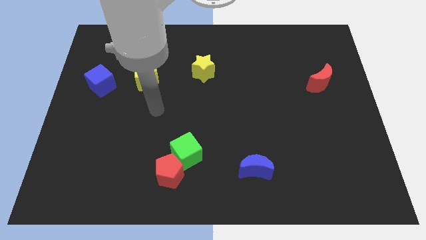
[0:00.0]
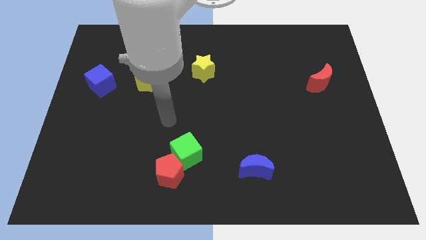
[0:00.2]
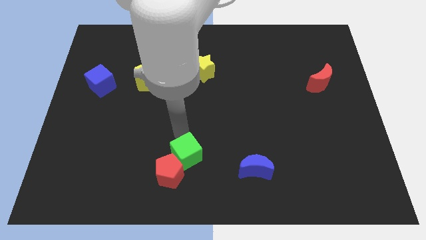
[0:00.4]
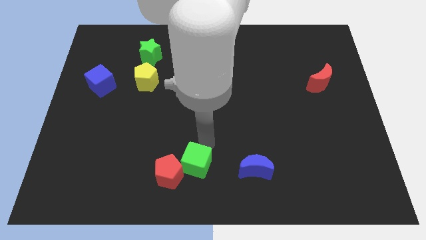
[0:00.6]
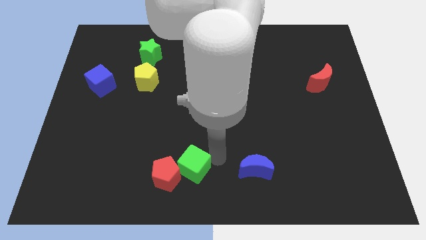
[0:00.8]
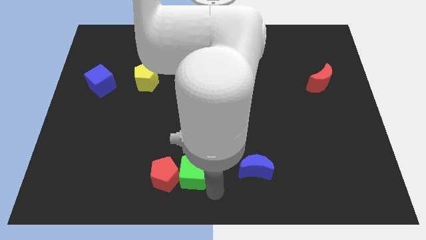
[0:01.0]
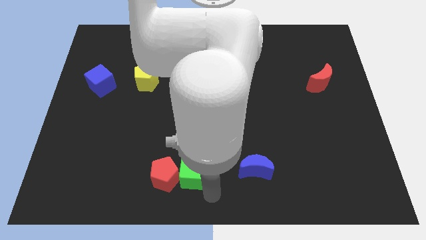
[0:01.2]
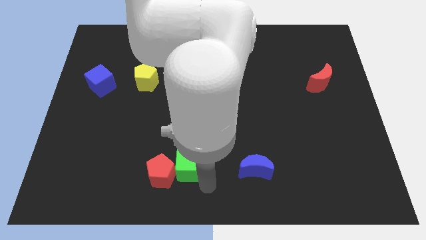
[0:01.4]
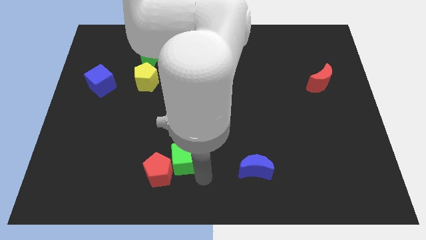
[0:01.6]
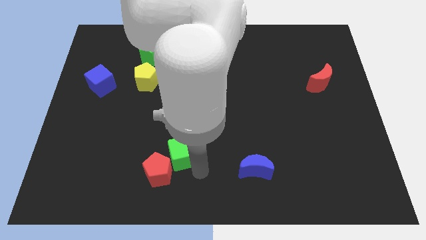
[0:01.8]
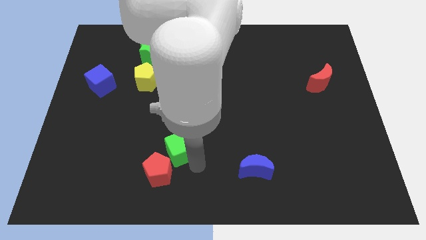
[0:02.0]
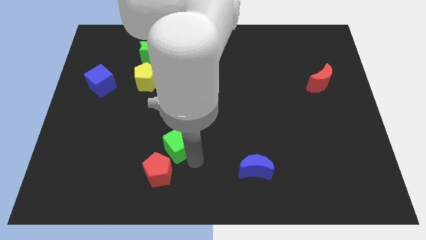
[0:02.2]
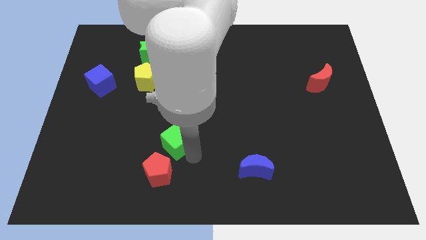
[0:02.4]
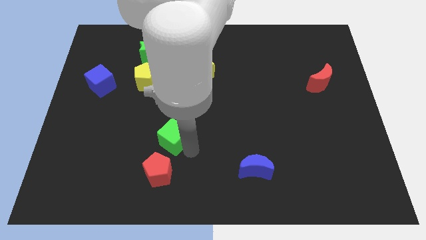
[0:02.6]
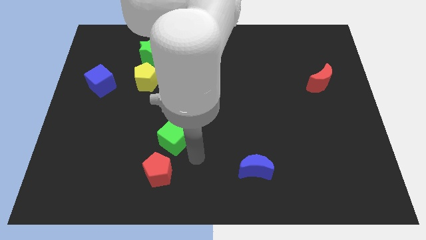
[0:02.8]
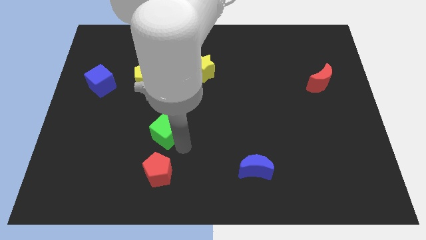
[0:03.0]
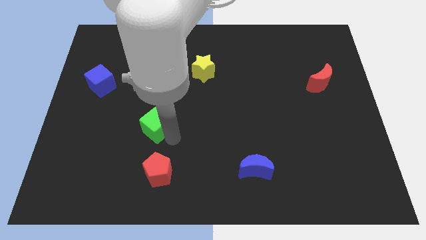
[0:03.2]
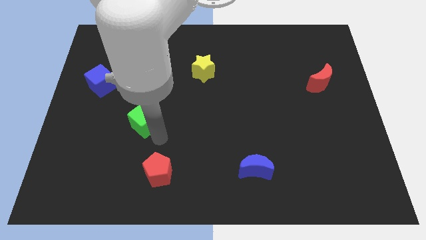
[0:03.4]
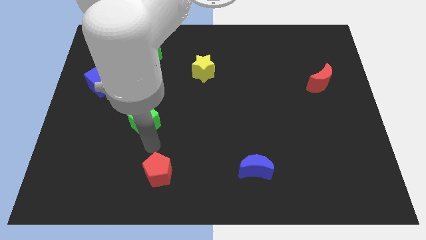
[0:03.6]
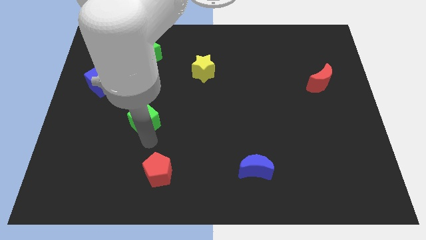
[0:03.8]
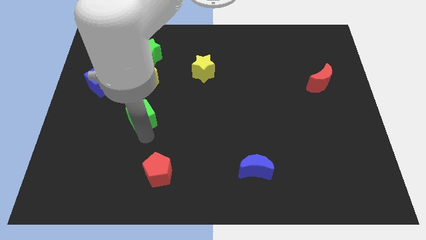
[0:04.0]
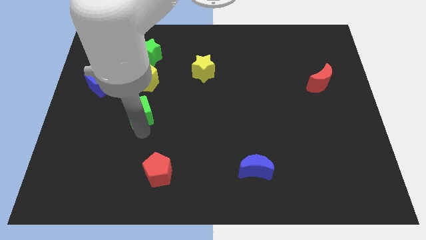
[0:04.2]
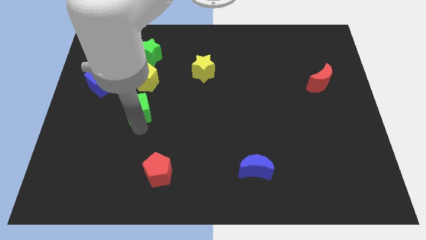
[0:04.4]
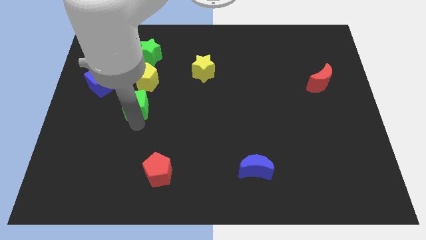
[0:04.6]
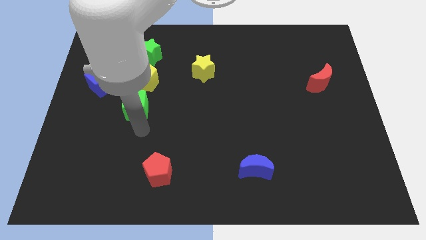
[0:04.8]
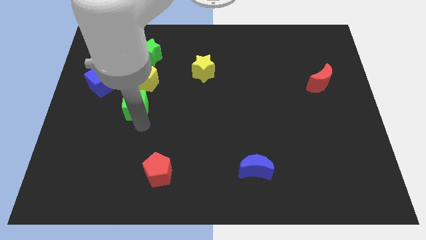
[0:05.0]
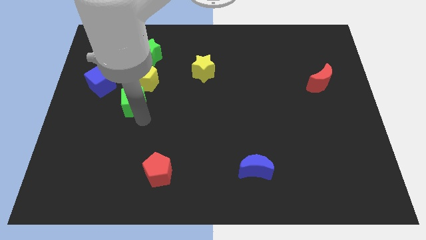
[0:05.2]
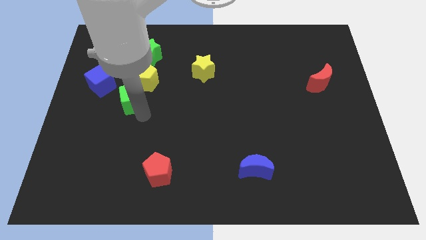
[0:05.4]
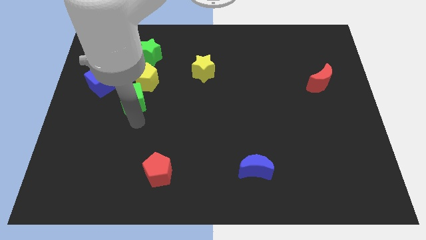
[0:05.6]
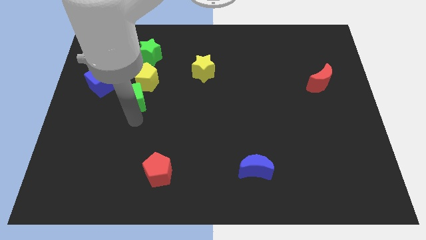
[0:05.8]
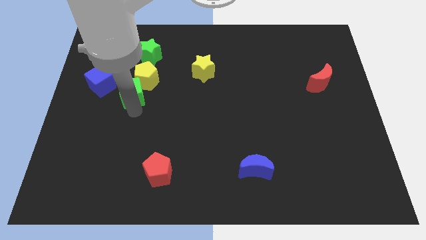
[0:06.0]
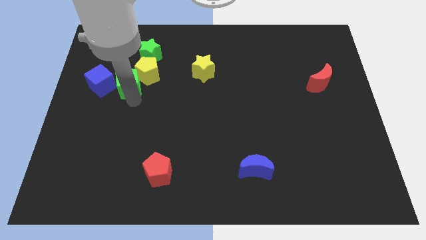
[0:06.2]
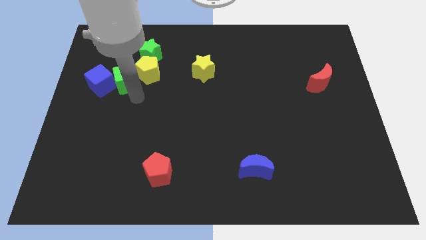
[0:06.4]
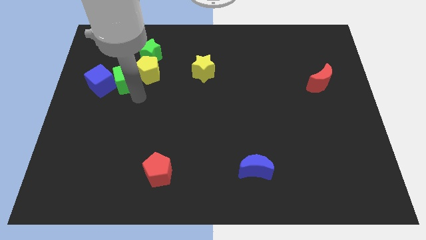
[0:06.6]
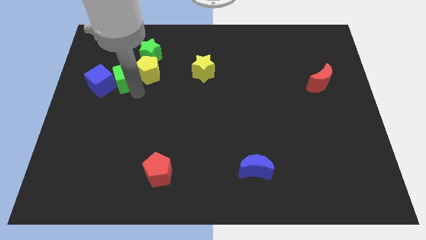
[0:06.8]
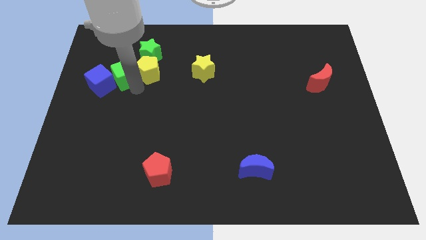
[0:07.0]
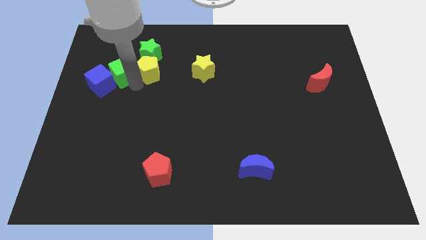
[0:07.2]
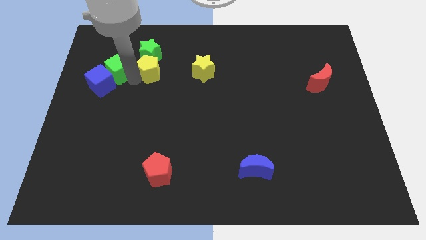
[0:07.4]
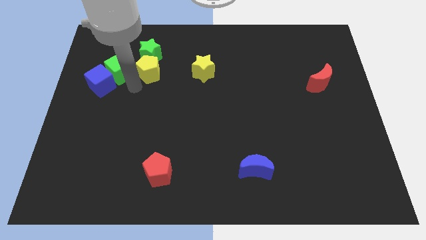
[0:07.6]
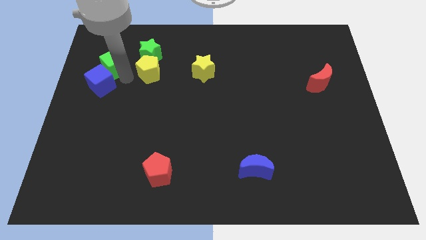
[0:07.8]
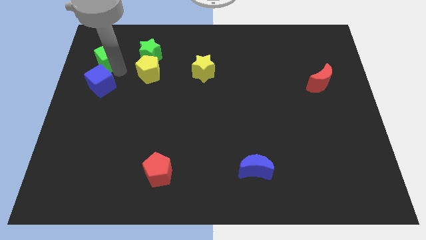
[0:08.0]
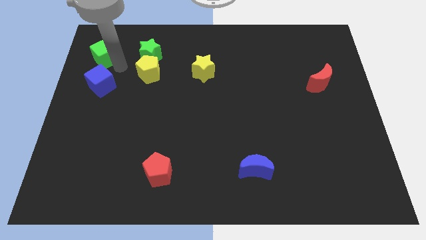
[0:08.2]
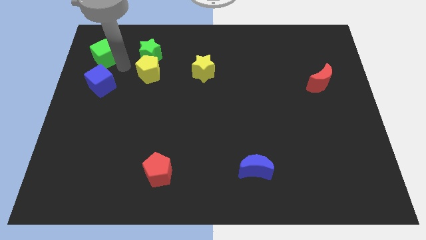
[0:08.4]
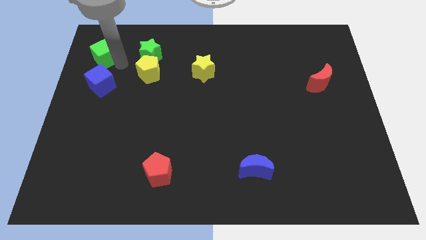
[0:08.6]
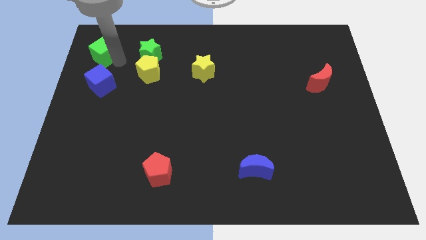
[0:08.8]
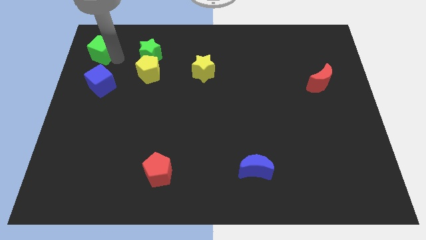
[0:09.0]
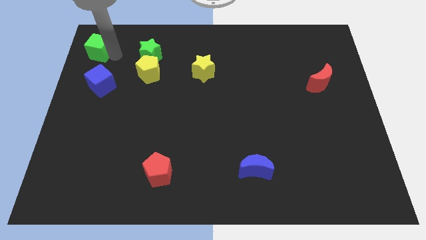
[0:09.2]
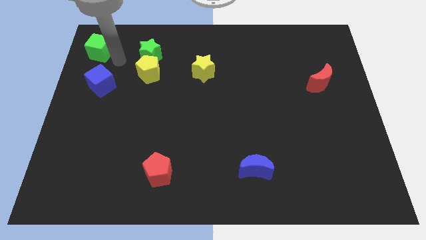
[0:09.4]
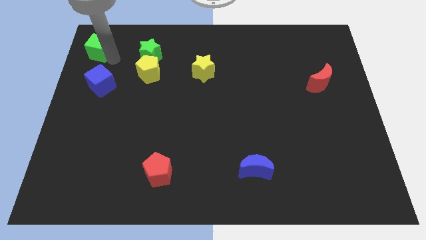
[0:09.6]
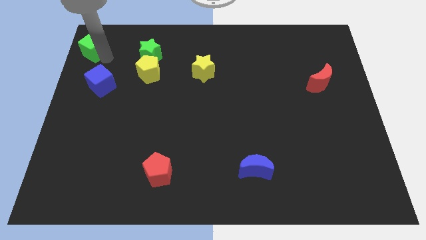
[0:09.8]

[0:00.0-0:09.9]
move the green cube to the top left

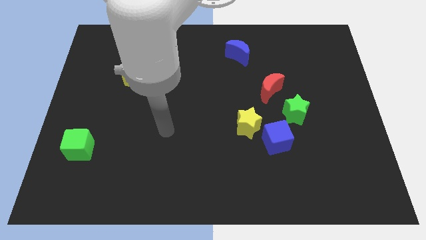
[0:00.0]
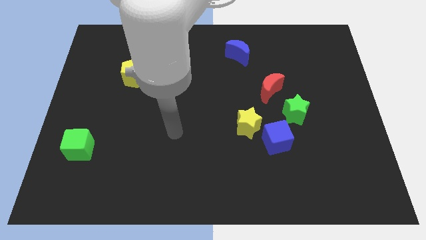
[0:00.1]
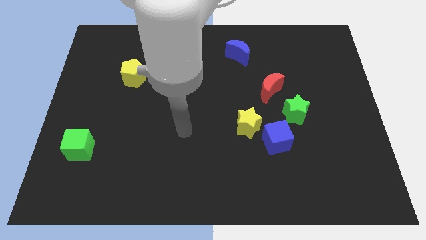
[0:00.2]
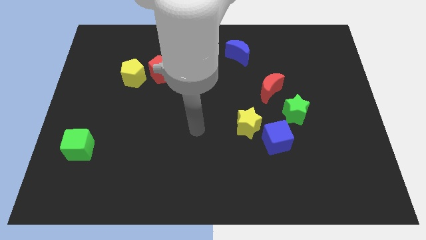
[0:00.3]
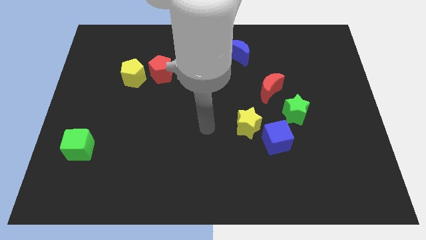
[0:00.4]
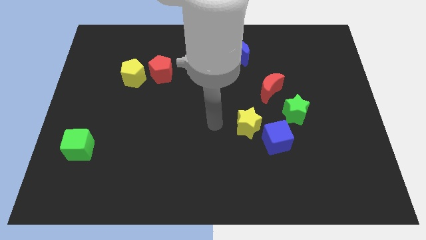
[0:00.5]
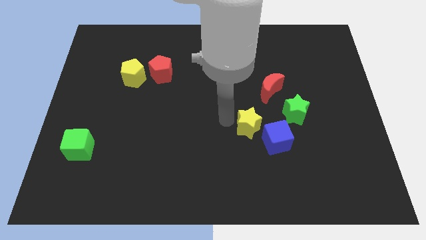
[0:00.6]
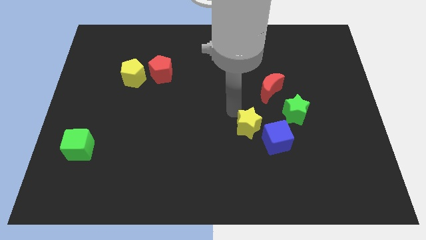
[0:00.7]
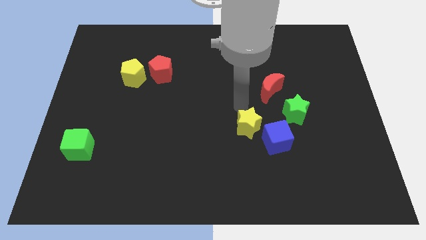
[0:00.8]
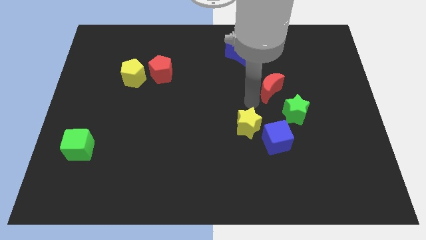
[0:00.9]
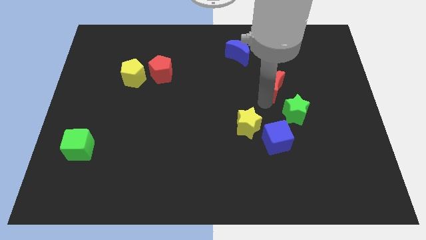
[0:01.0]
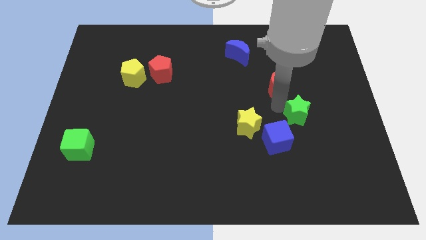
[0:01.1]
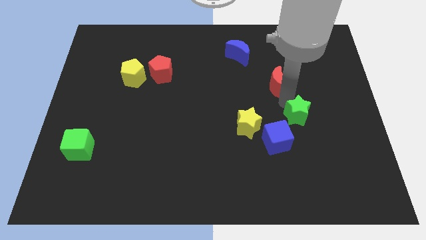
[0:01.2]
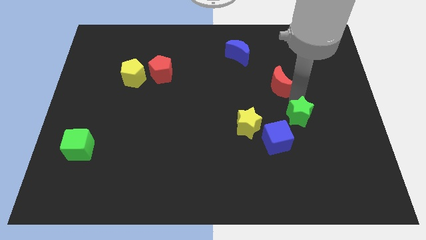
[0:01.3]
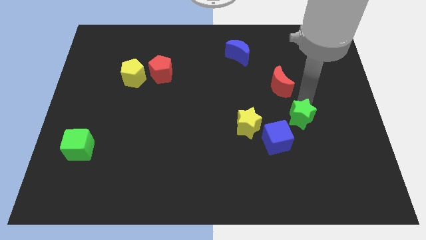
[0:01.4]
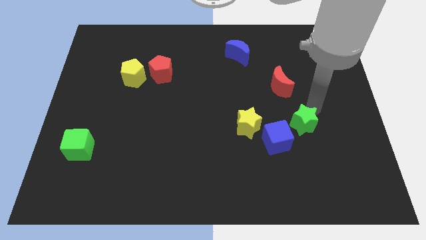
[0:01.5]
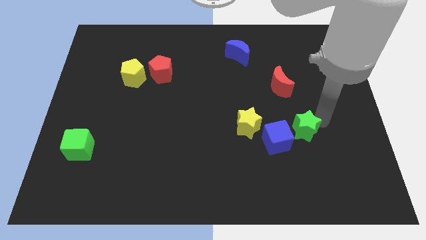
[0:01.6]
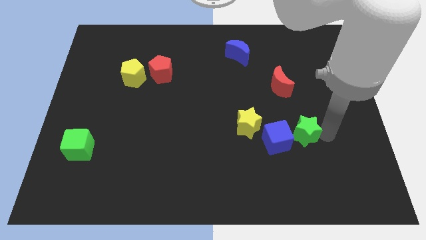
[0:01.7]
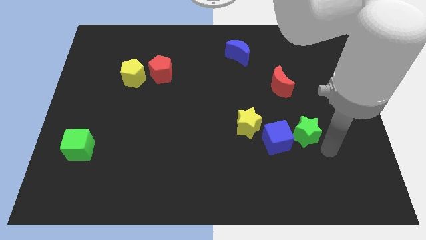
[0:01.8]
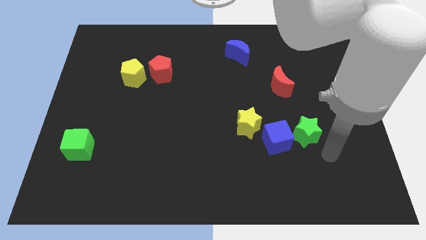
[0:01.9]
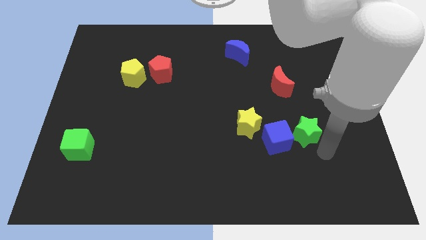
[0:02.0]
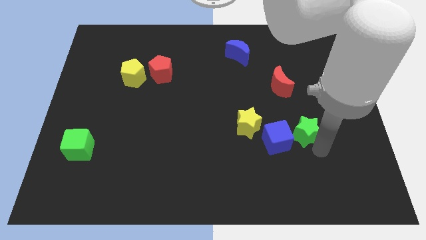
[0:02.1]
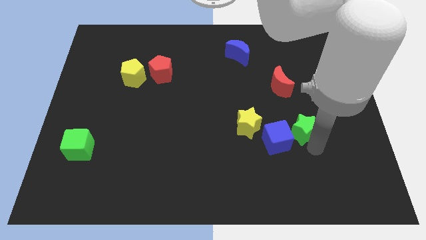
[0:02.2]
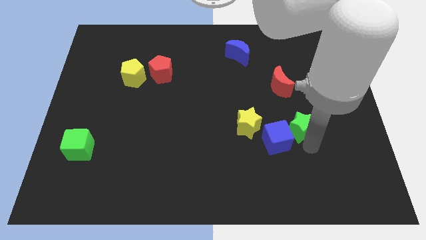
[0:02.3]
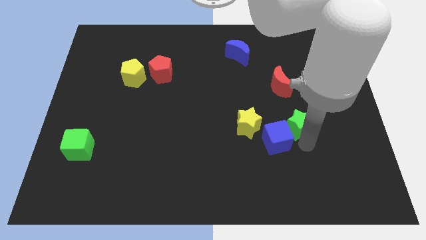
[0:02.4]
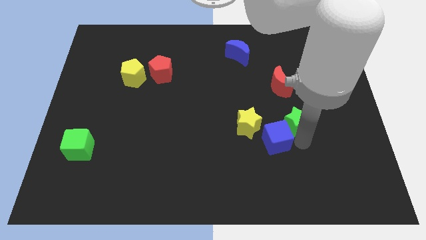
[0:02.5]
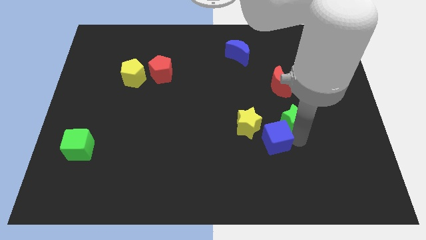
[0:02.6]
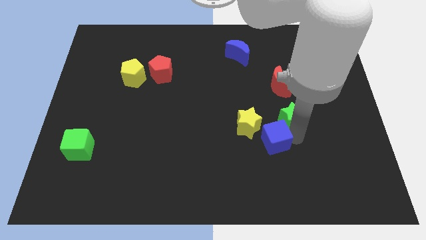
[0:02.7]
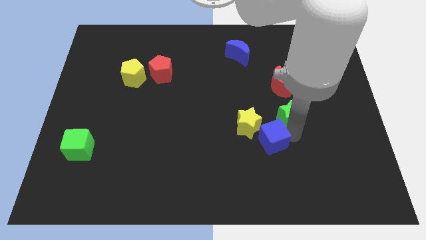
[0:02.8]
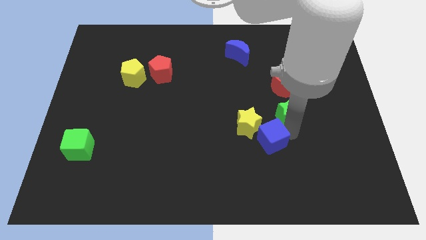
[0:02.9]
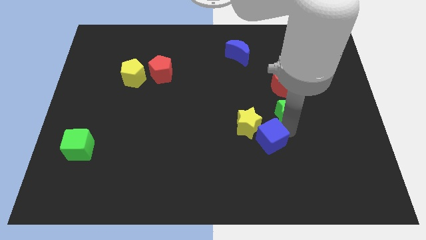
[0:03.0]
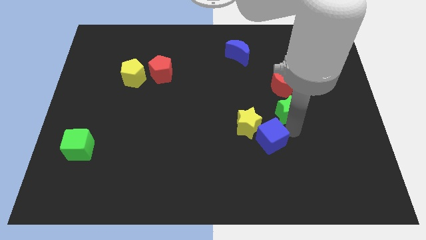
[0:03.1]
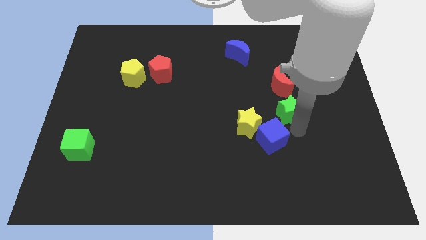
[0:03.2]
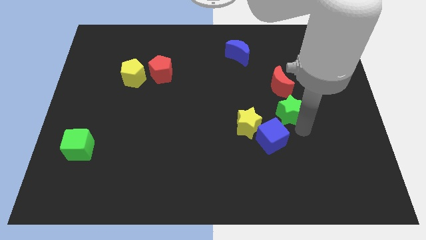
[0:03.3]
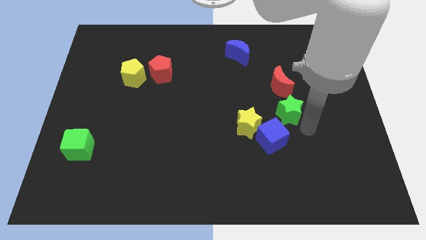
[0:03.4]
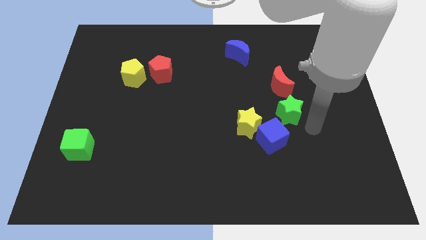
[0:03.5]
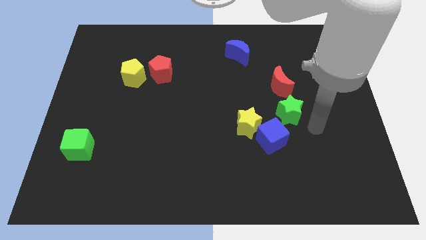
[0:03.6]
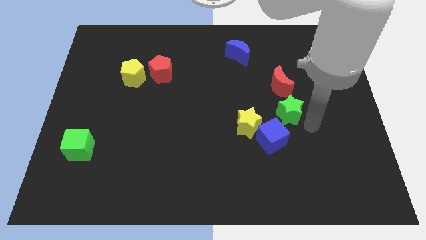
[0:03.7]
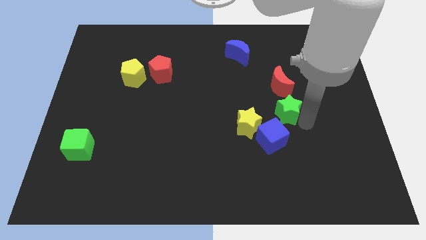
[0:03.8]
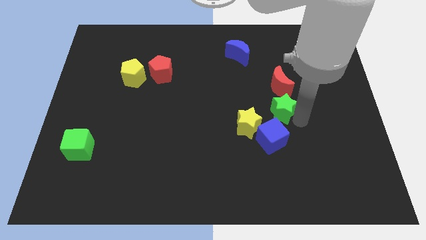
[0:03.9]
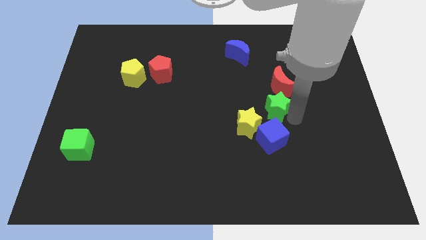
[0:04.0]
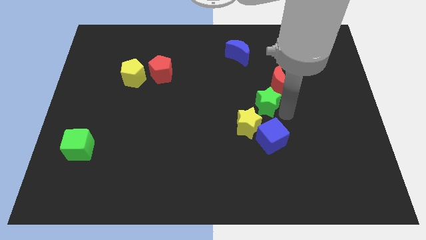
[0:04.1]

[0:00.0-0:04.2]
move the green star to the middle of the board
